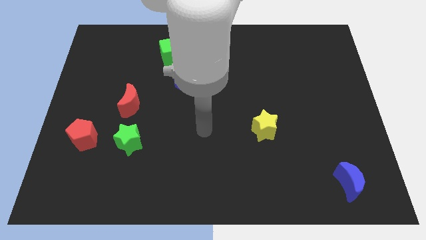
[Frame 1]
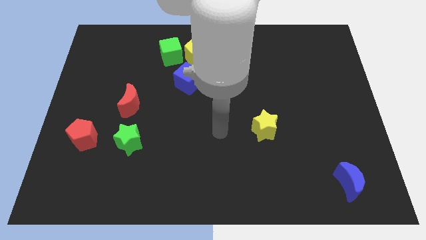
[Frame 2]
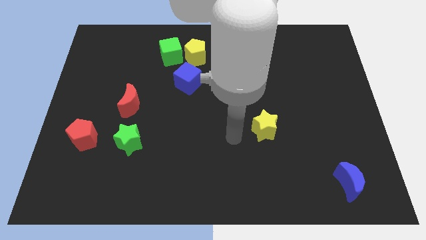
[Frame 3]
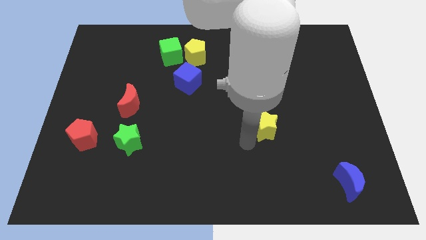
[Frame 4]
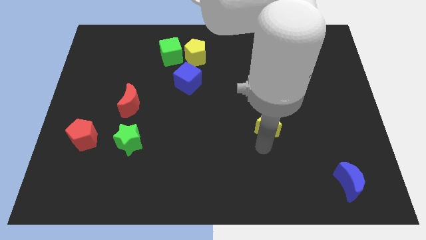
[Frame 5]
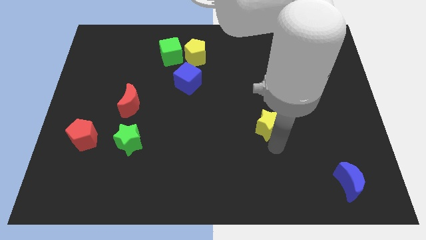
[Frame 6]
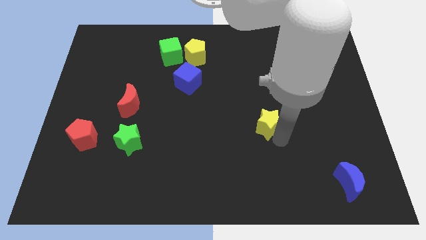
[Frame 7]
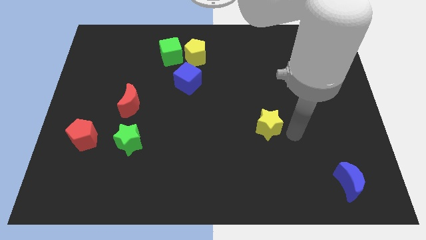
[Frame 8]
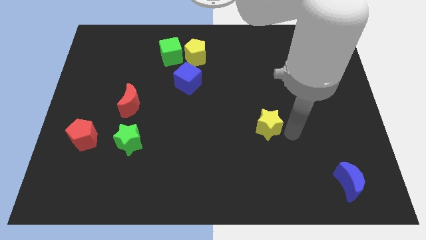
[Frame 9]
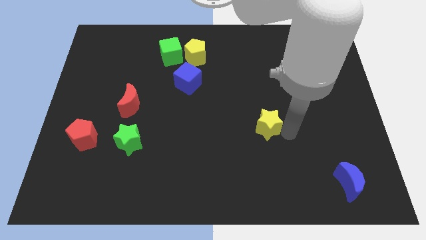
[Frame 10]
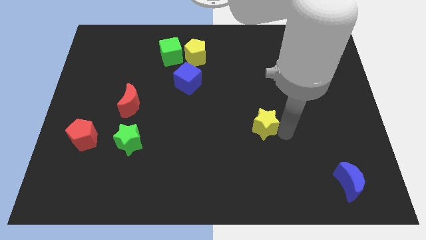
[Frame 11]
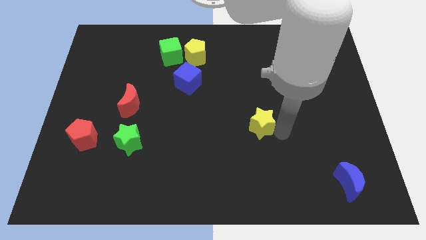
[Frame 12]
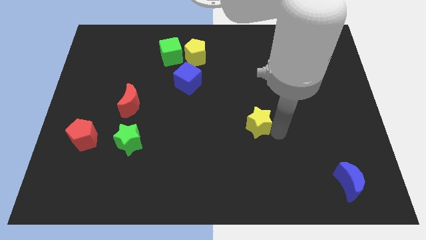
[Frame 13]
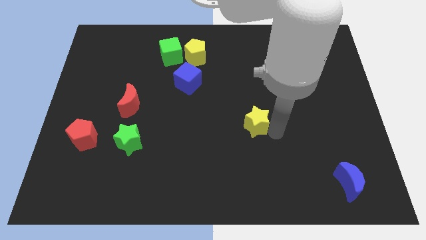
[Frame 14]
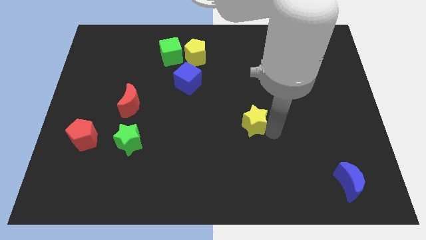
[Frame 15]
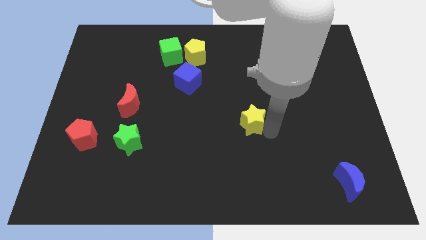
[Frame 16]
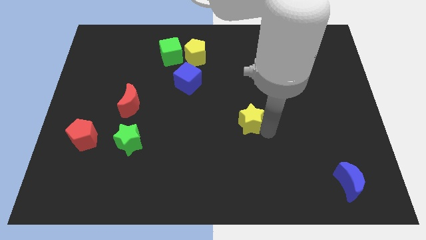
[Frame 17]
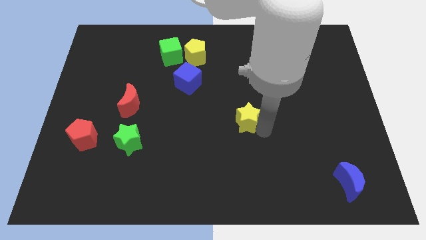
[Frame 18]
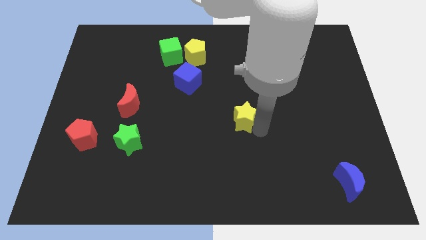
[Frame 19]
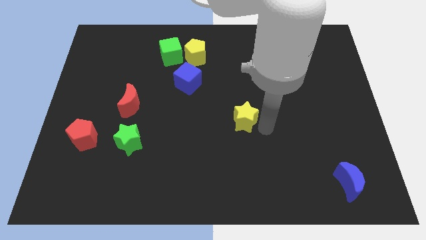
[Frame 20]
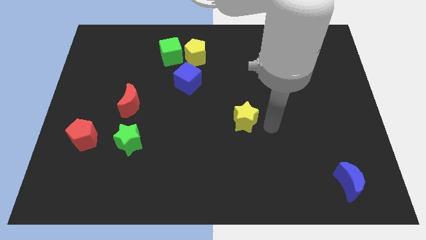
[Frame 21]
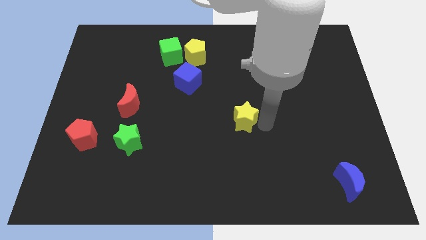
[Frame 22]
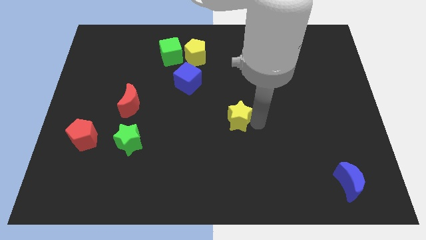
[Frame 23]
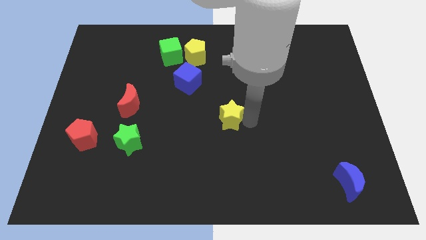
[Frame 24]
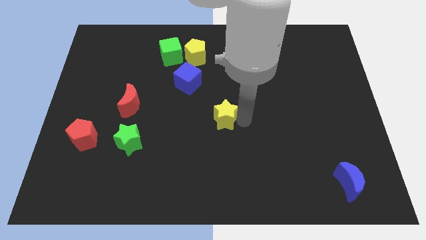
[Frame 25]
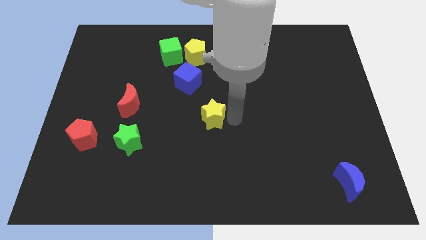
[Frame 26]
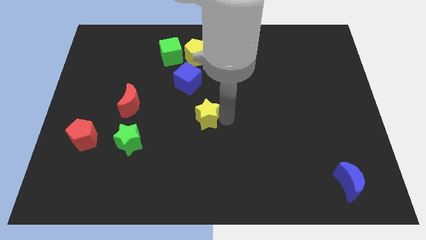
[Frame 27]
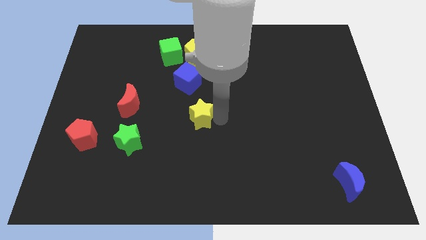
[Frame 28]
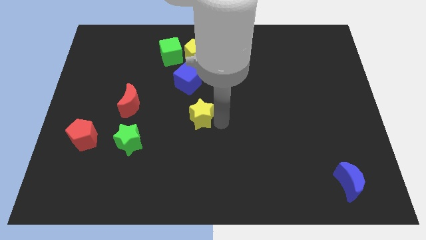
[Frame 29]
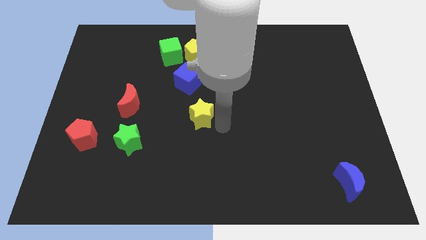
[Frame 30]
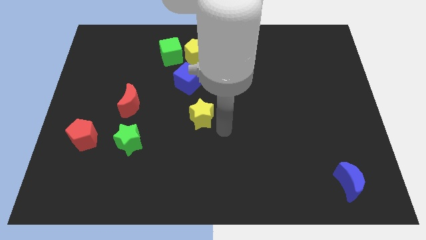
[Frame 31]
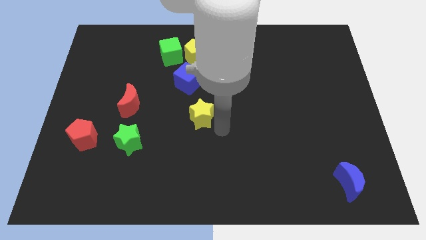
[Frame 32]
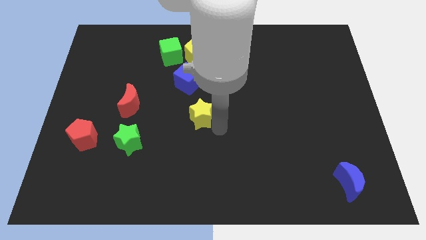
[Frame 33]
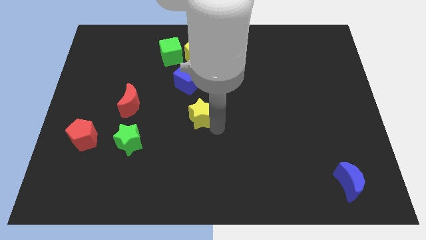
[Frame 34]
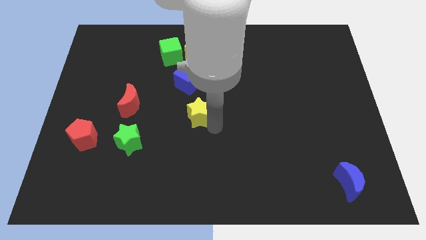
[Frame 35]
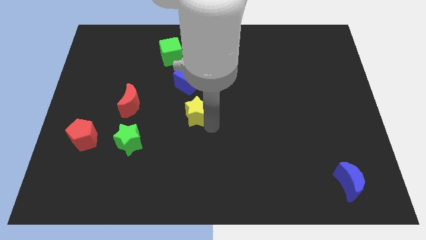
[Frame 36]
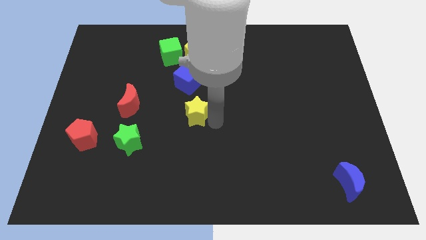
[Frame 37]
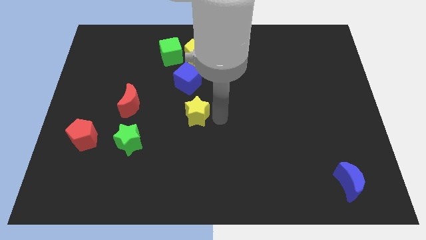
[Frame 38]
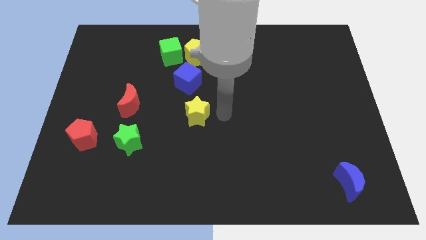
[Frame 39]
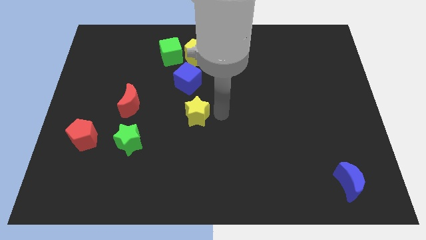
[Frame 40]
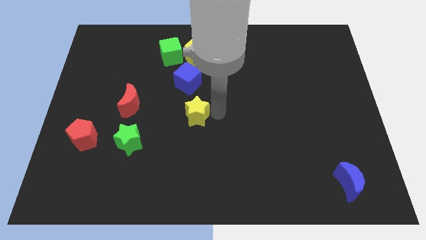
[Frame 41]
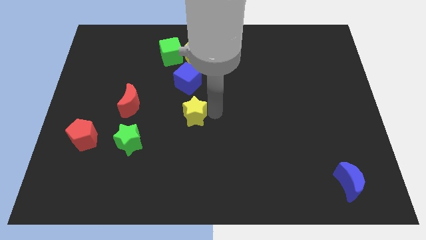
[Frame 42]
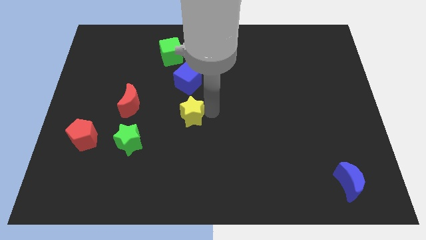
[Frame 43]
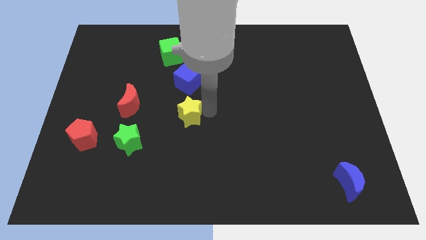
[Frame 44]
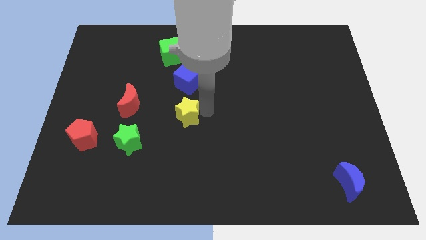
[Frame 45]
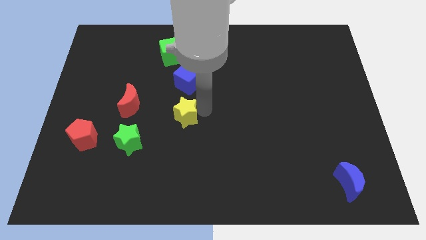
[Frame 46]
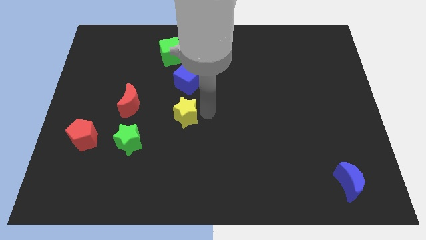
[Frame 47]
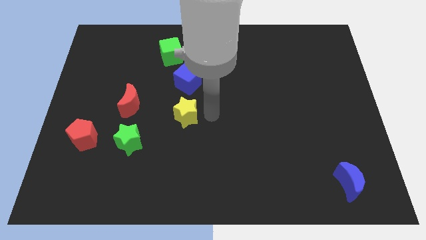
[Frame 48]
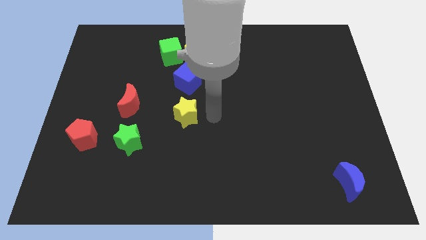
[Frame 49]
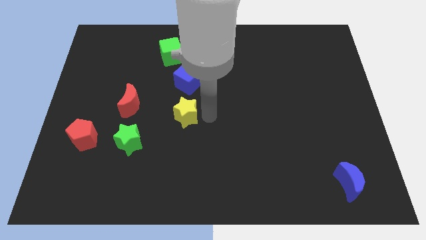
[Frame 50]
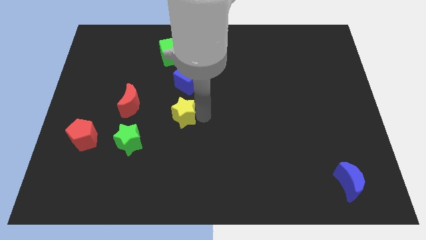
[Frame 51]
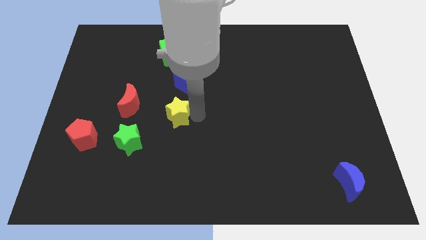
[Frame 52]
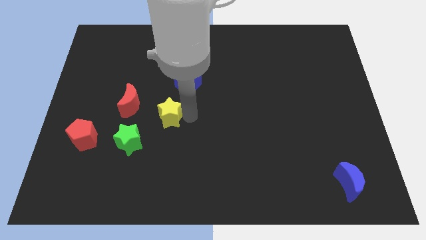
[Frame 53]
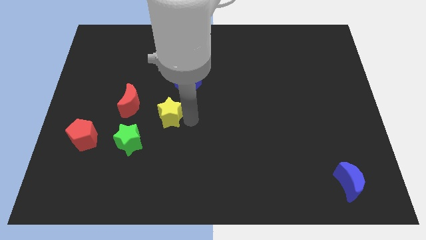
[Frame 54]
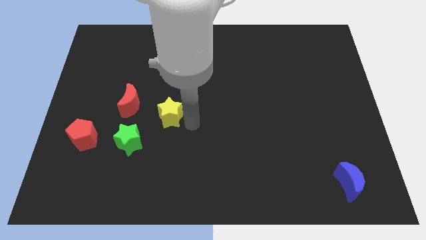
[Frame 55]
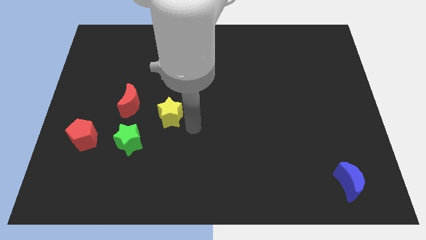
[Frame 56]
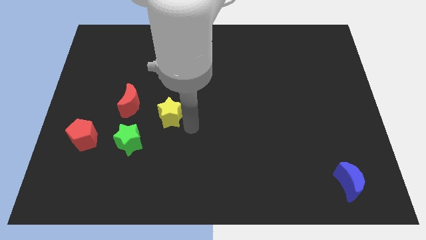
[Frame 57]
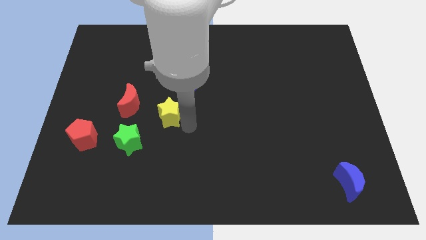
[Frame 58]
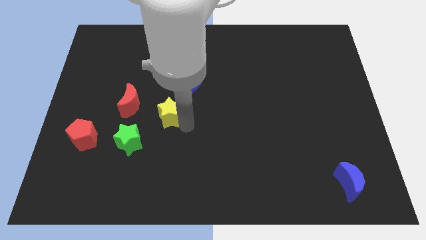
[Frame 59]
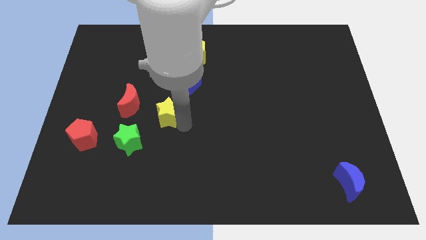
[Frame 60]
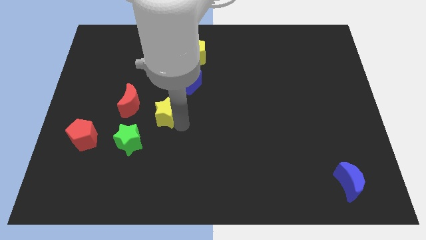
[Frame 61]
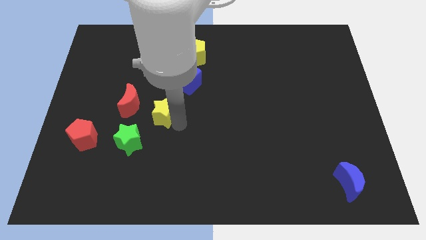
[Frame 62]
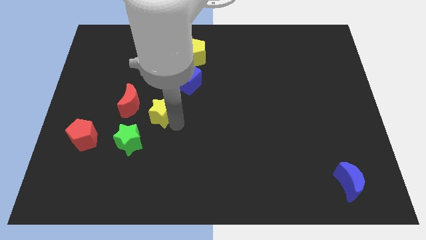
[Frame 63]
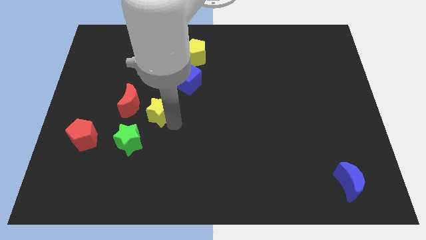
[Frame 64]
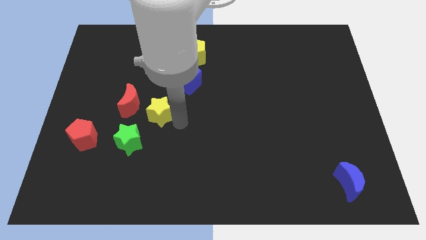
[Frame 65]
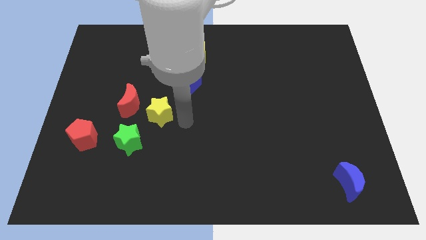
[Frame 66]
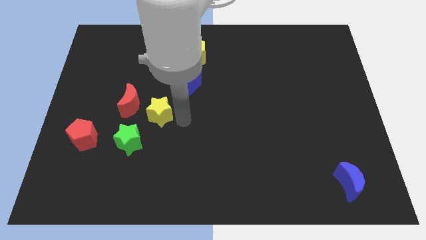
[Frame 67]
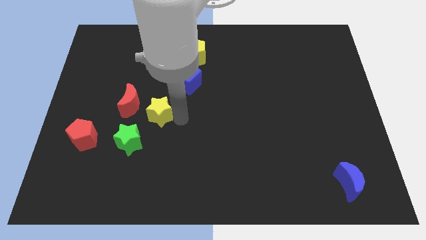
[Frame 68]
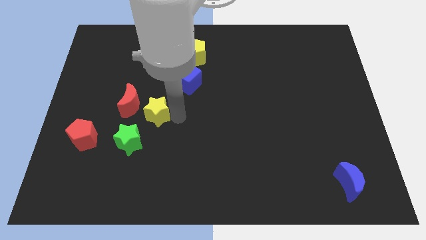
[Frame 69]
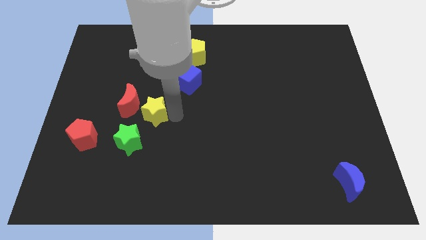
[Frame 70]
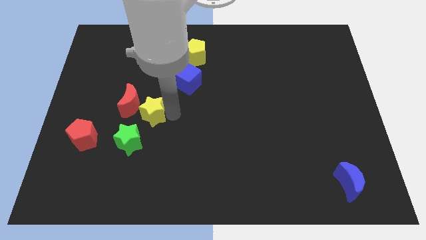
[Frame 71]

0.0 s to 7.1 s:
put the yellow star to the red moon

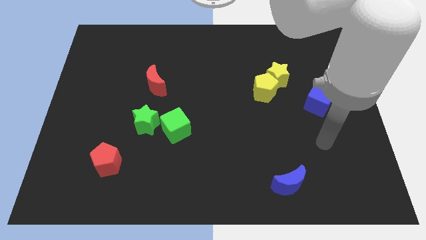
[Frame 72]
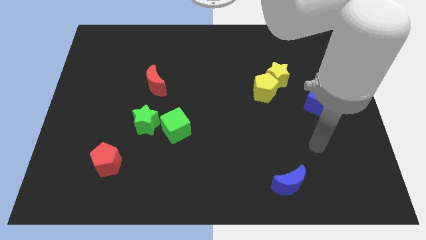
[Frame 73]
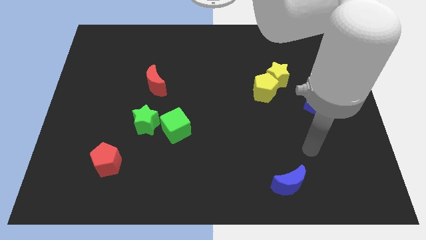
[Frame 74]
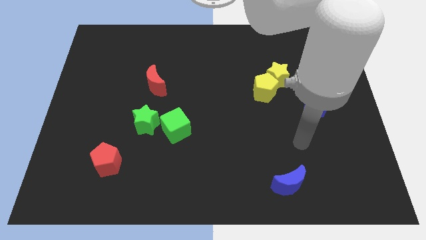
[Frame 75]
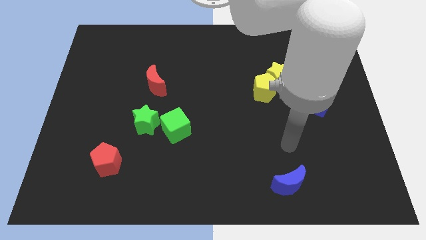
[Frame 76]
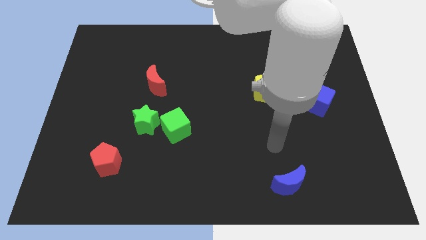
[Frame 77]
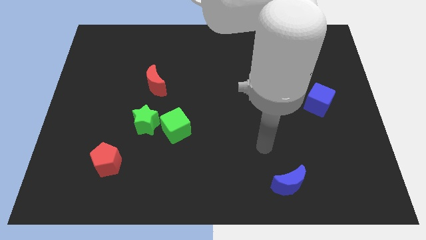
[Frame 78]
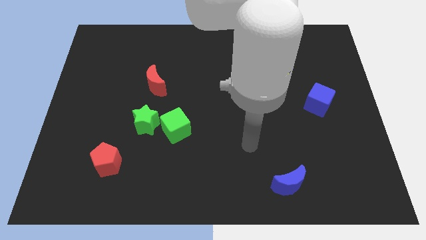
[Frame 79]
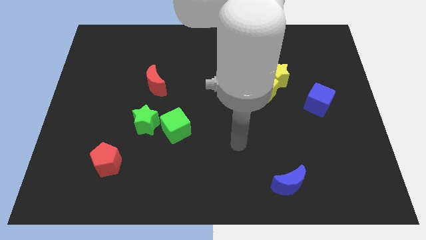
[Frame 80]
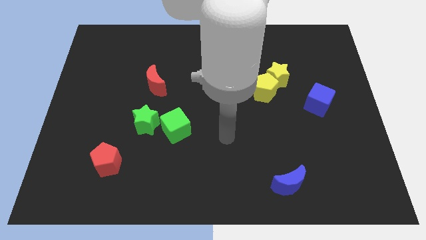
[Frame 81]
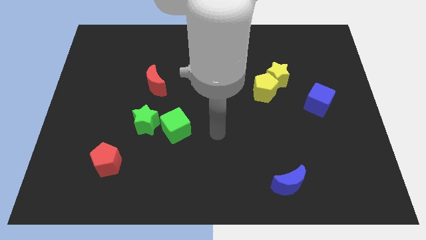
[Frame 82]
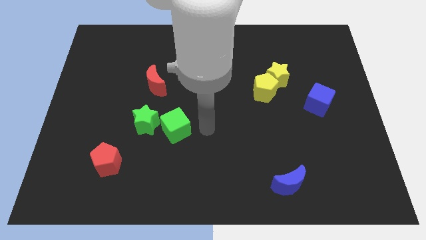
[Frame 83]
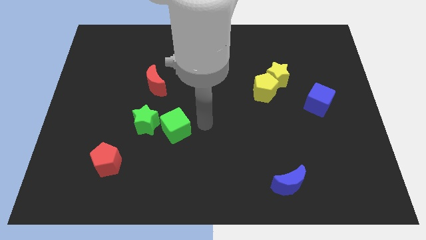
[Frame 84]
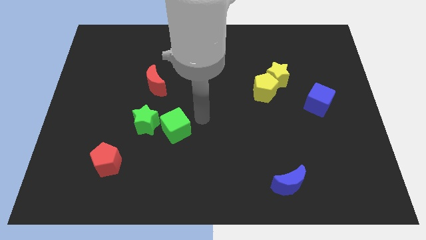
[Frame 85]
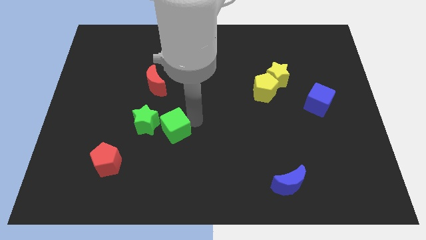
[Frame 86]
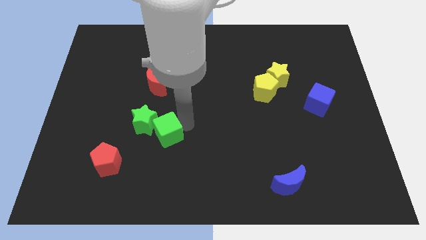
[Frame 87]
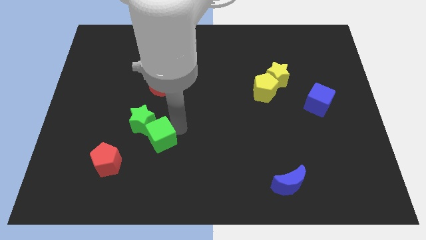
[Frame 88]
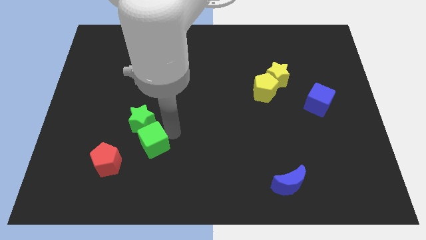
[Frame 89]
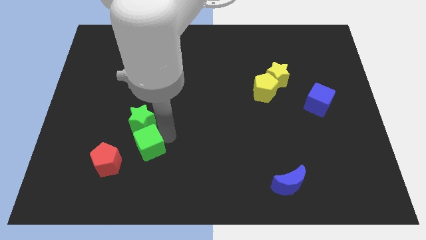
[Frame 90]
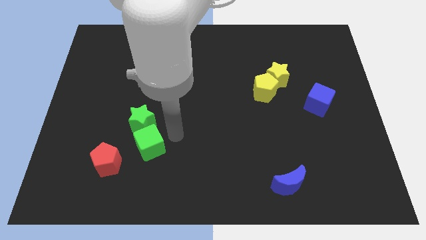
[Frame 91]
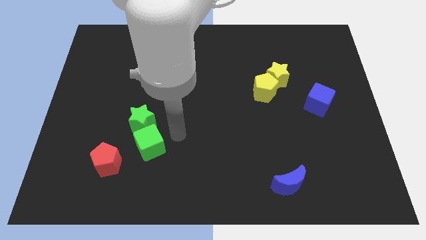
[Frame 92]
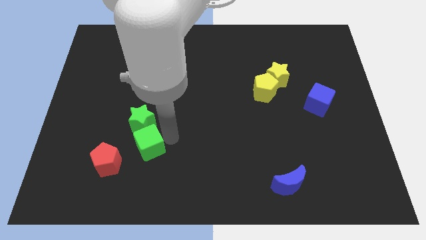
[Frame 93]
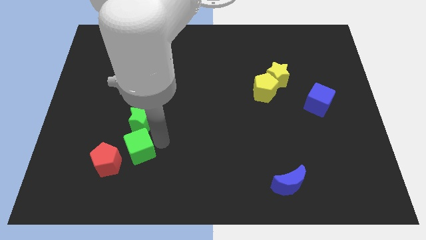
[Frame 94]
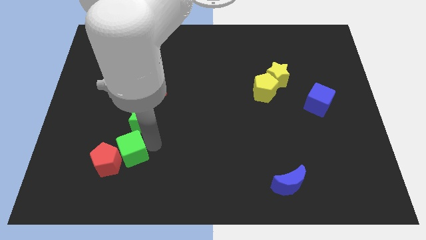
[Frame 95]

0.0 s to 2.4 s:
put the green cube next to the red pentagon
